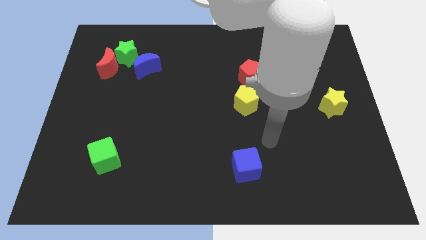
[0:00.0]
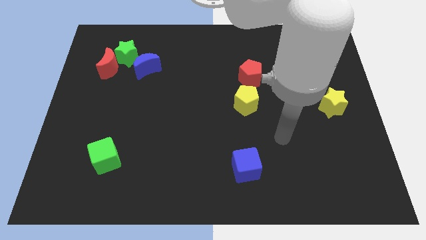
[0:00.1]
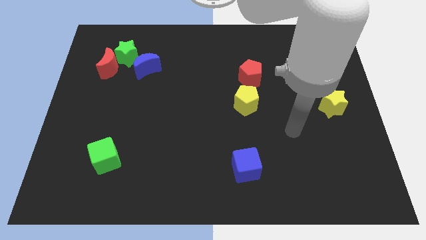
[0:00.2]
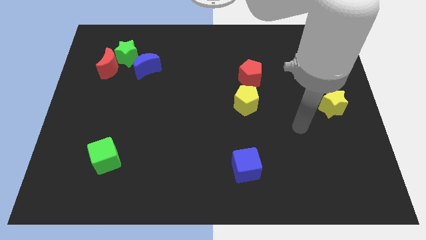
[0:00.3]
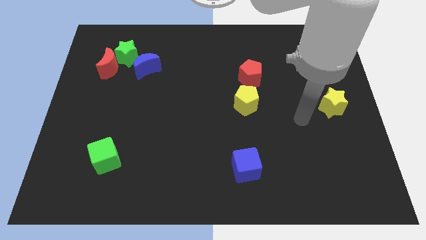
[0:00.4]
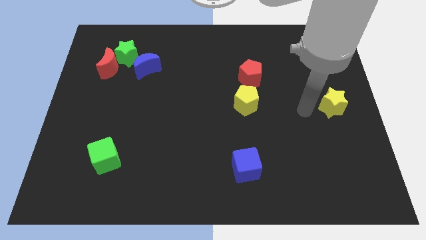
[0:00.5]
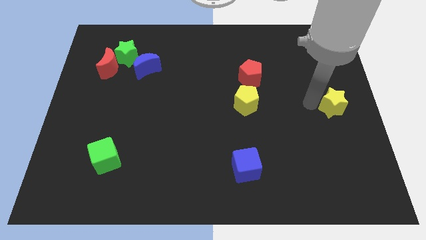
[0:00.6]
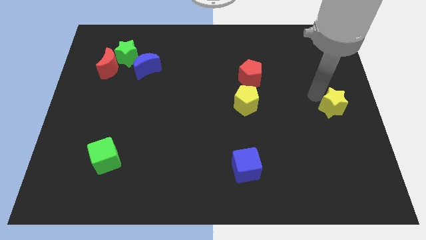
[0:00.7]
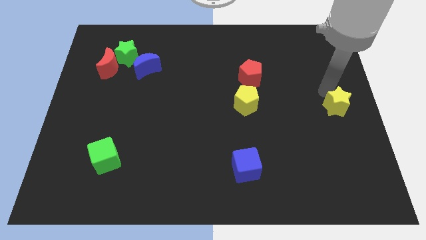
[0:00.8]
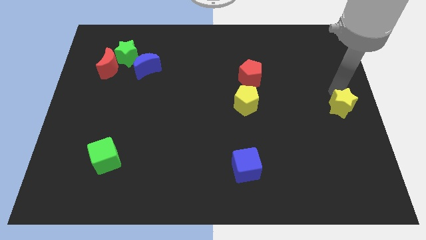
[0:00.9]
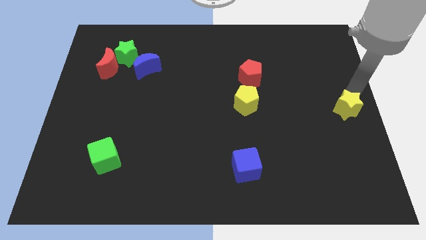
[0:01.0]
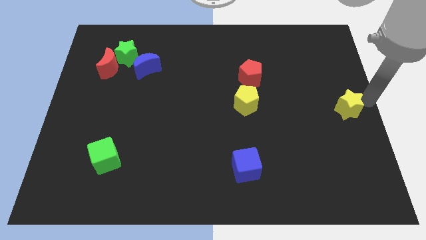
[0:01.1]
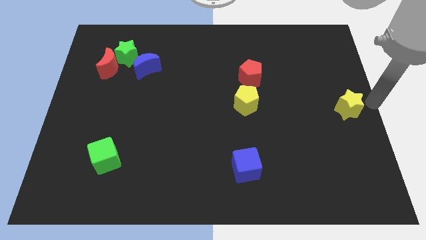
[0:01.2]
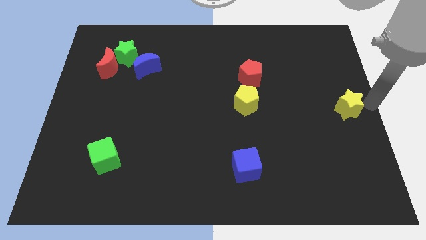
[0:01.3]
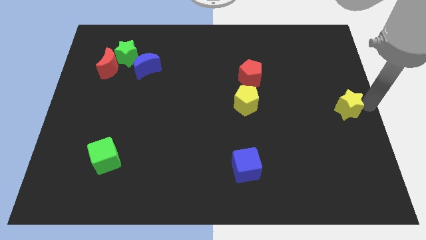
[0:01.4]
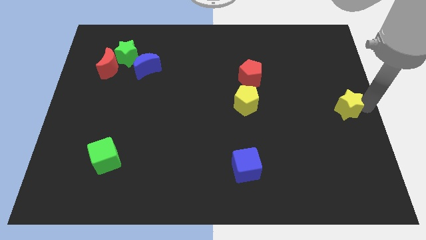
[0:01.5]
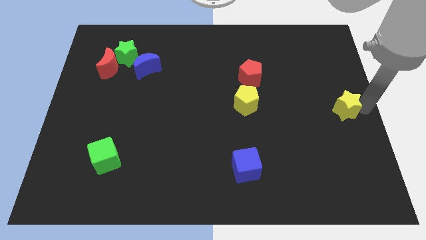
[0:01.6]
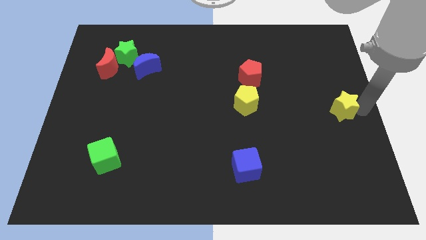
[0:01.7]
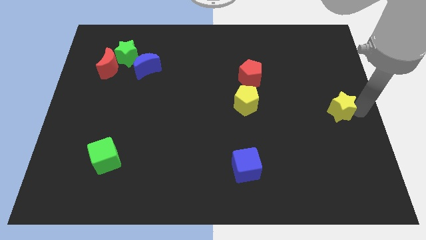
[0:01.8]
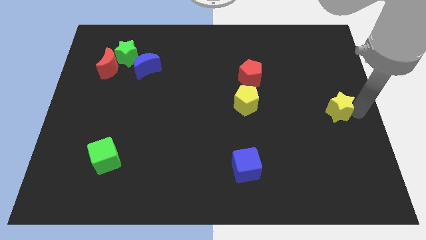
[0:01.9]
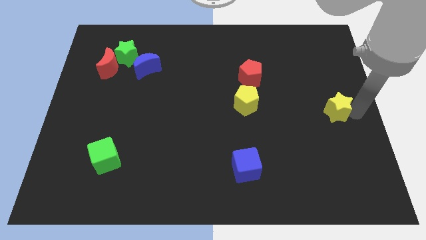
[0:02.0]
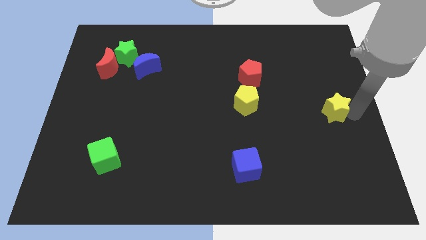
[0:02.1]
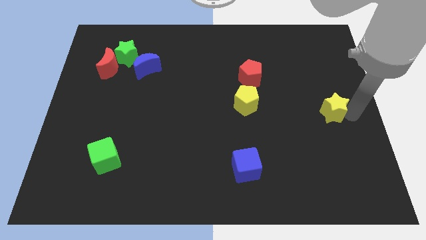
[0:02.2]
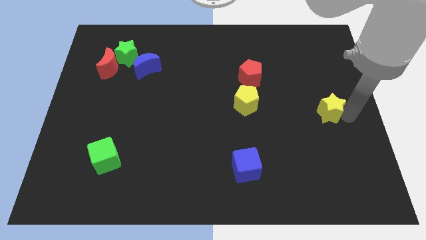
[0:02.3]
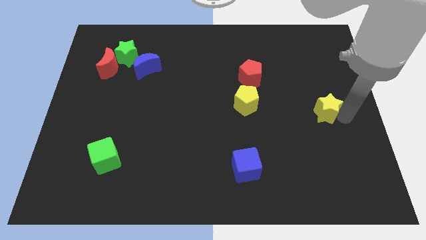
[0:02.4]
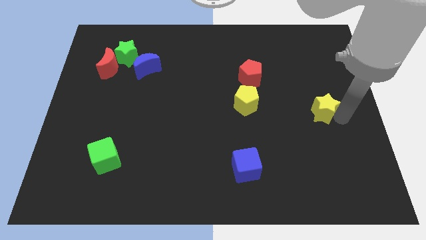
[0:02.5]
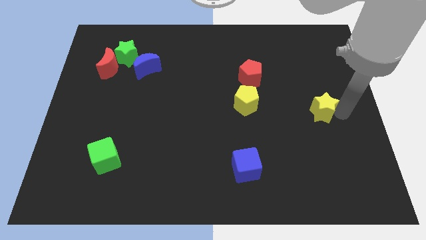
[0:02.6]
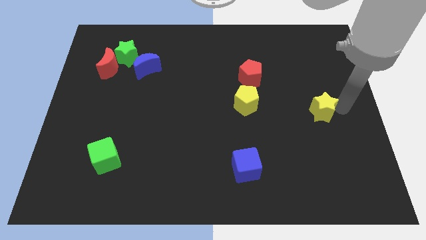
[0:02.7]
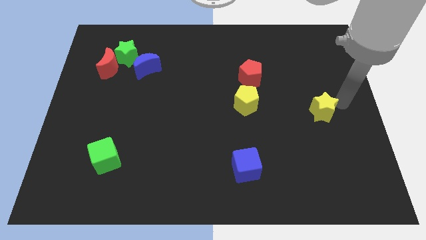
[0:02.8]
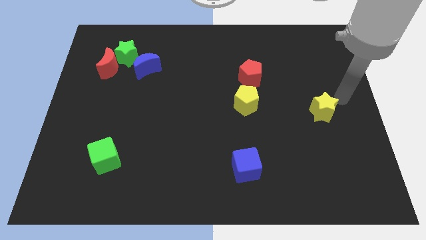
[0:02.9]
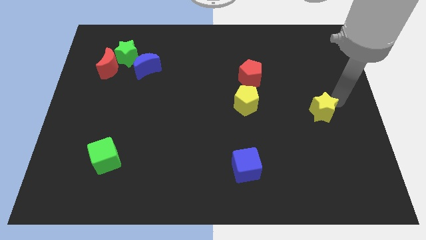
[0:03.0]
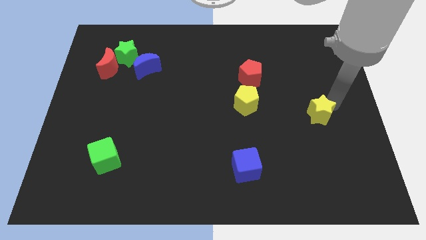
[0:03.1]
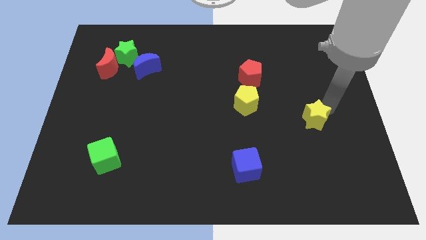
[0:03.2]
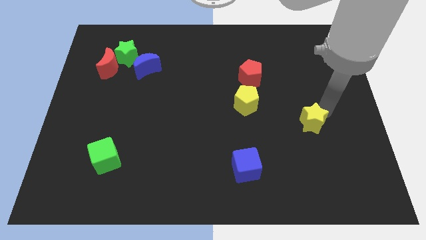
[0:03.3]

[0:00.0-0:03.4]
push the yellow star diagonally downwards and to the left somewhat

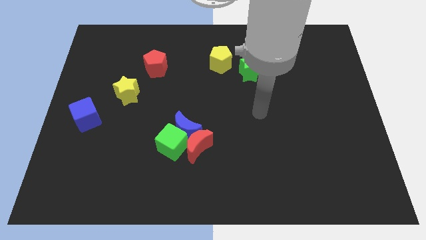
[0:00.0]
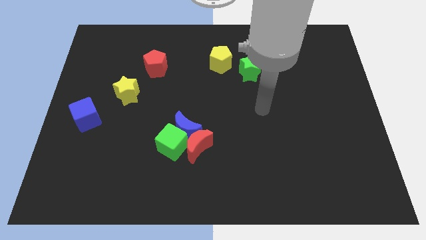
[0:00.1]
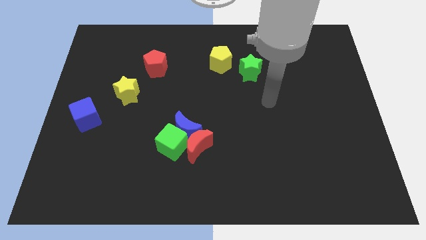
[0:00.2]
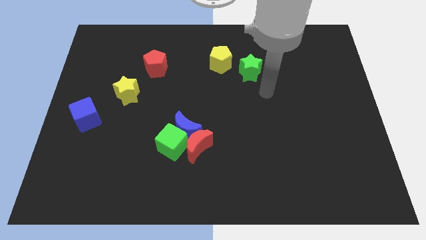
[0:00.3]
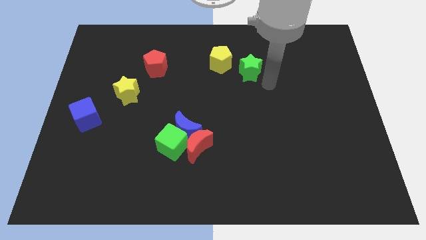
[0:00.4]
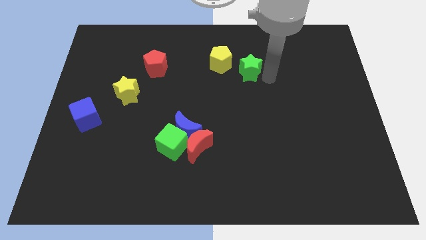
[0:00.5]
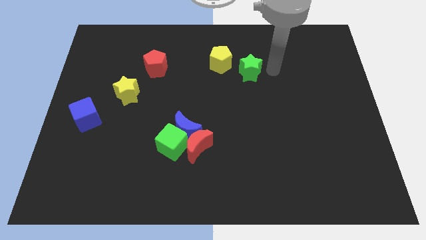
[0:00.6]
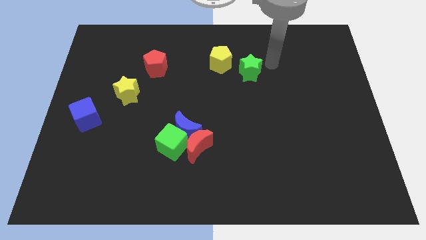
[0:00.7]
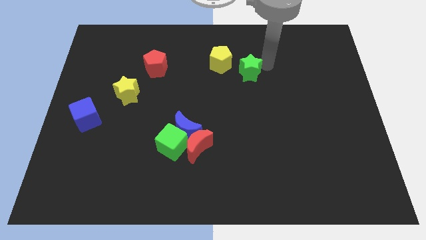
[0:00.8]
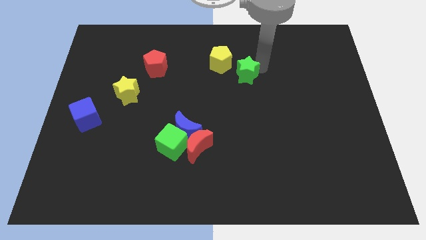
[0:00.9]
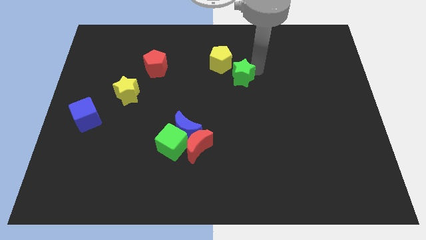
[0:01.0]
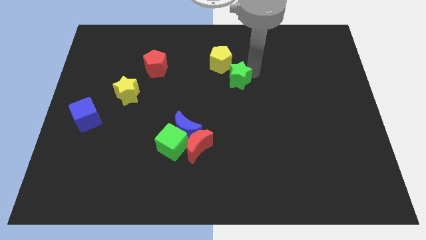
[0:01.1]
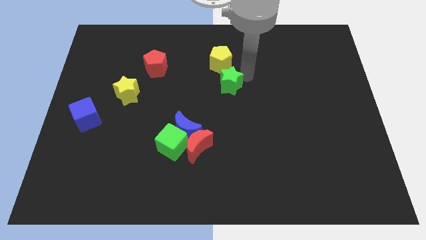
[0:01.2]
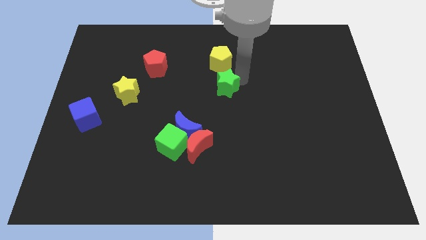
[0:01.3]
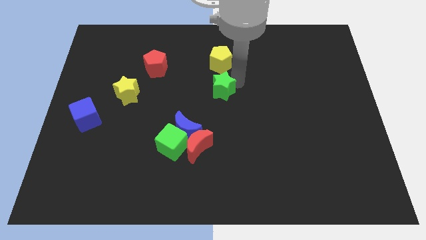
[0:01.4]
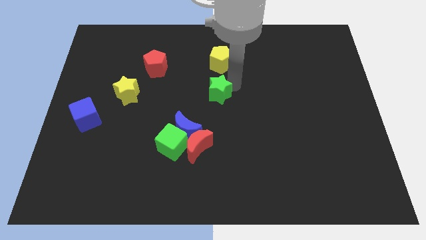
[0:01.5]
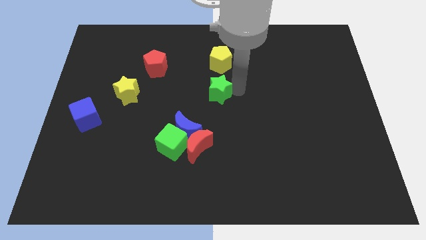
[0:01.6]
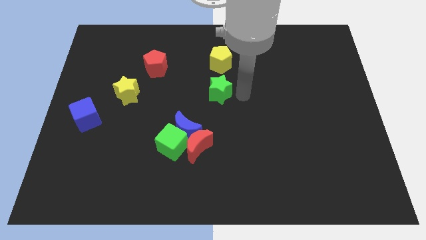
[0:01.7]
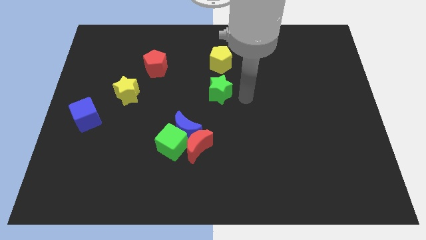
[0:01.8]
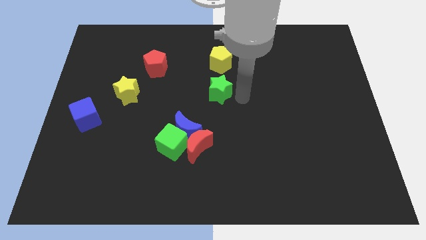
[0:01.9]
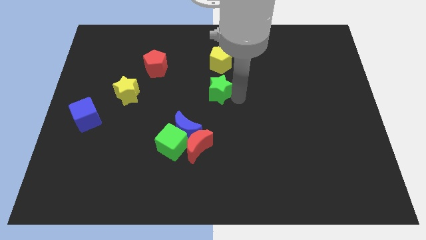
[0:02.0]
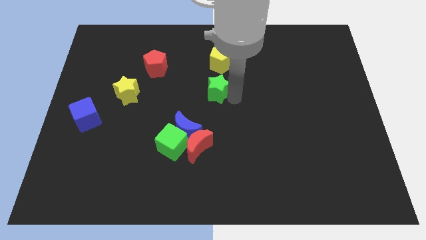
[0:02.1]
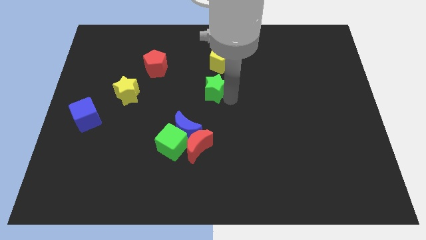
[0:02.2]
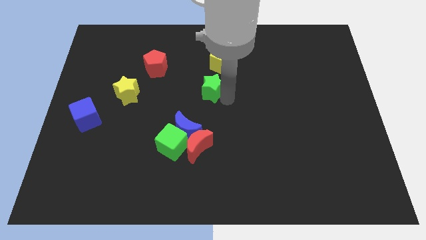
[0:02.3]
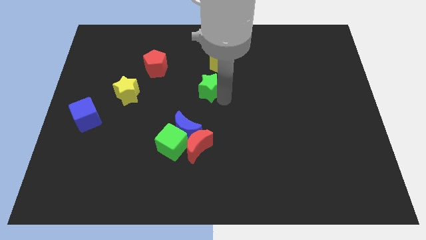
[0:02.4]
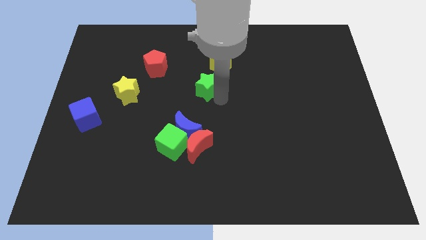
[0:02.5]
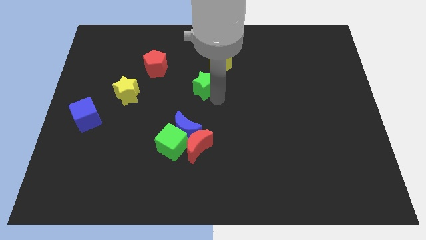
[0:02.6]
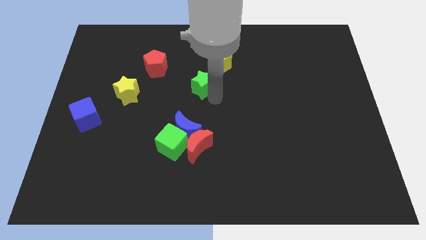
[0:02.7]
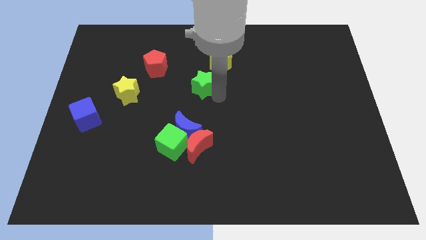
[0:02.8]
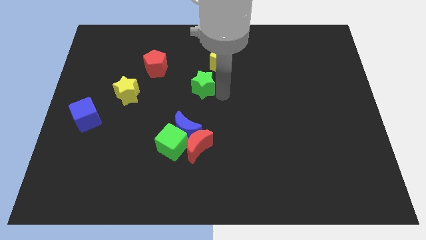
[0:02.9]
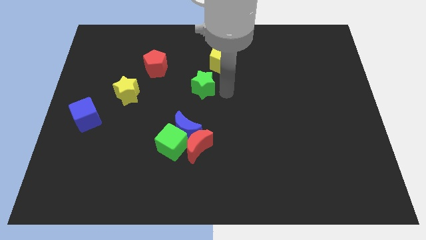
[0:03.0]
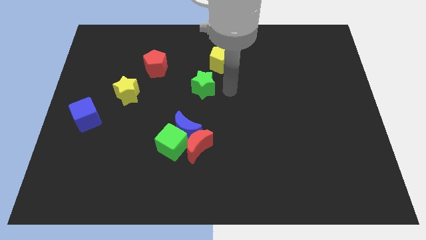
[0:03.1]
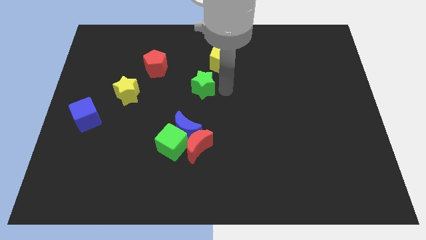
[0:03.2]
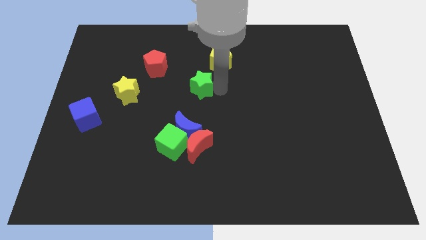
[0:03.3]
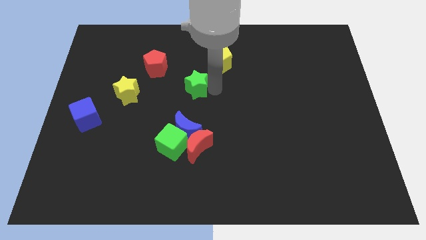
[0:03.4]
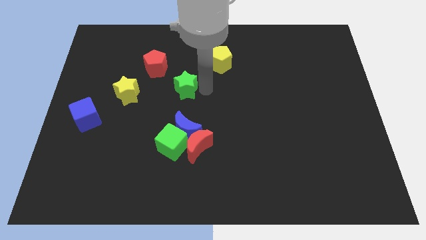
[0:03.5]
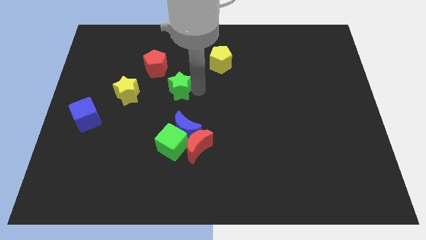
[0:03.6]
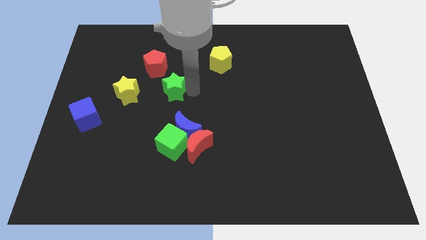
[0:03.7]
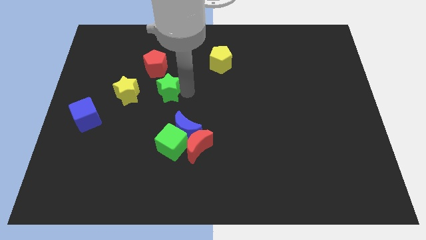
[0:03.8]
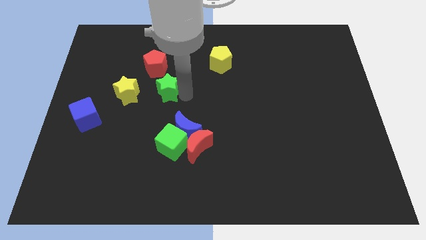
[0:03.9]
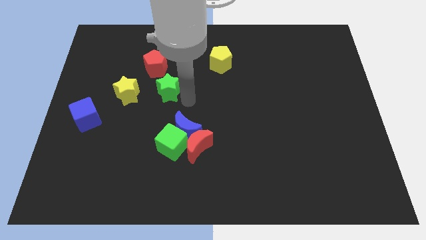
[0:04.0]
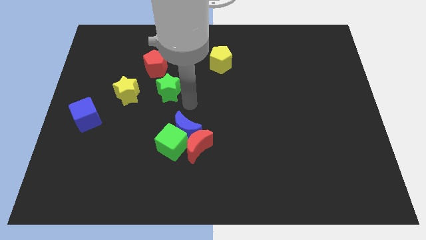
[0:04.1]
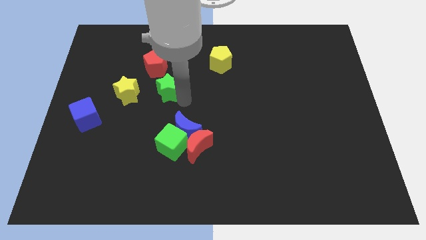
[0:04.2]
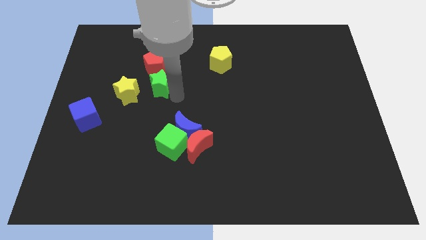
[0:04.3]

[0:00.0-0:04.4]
move the green star to the left
